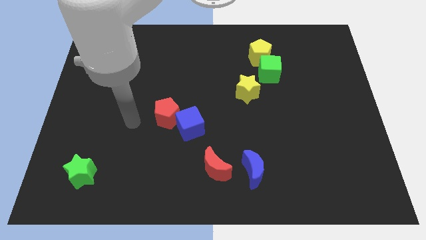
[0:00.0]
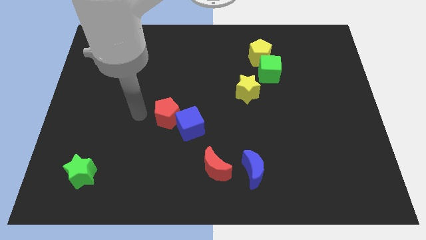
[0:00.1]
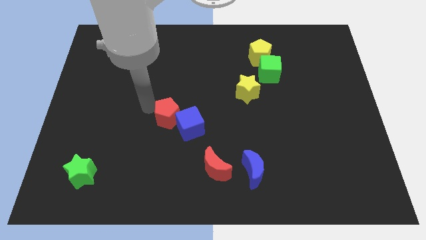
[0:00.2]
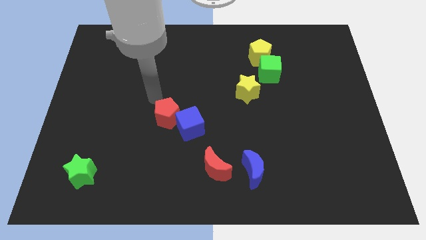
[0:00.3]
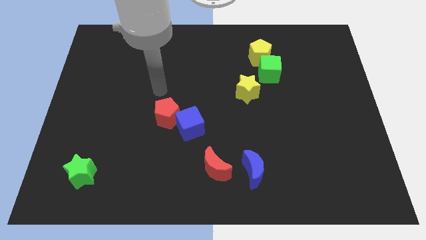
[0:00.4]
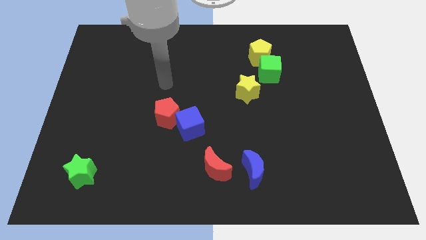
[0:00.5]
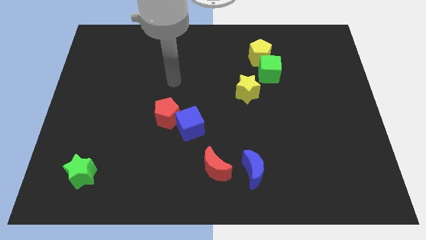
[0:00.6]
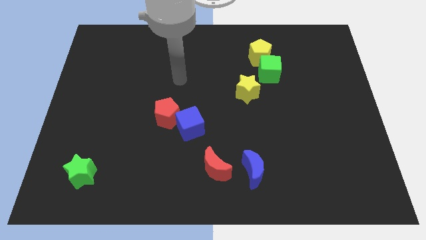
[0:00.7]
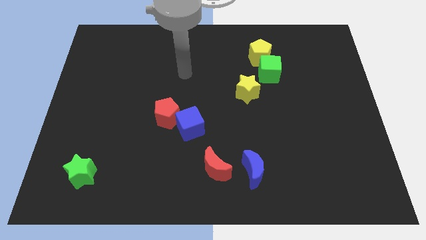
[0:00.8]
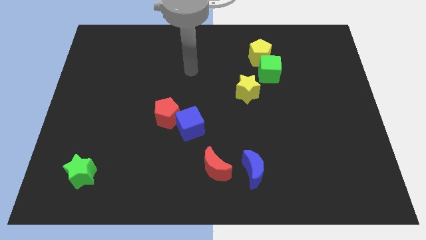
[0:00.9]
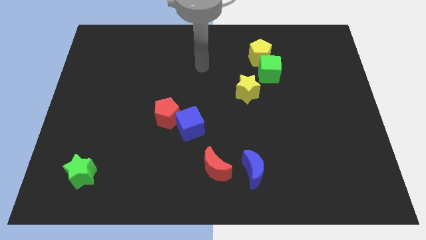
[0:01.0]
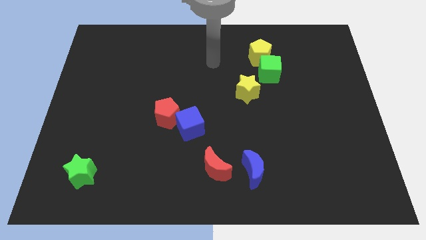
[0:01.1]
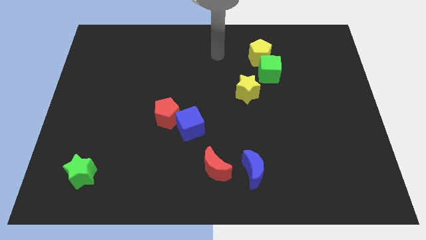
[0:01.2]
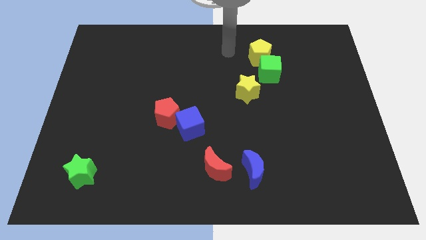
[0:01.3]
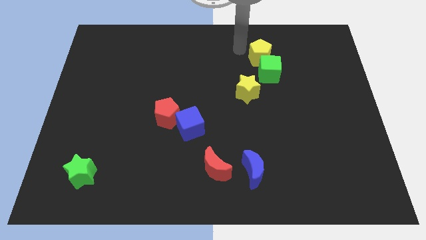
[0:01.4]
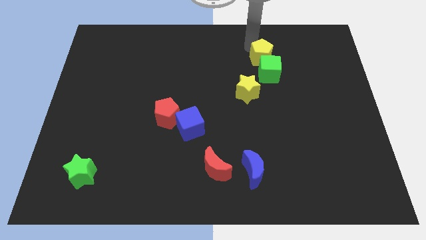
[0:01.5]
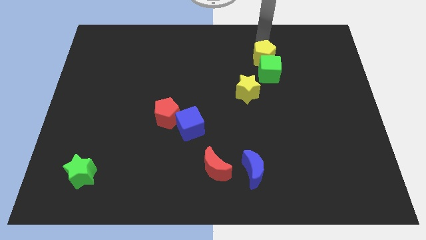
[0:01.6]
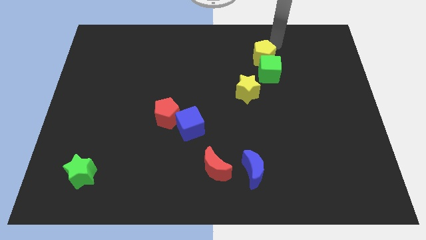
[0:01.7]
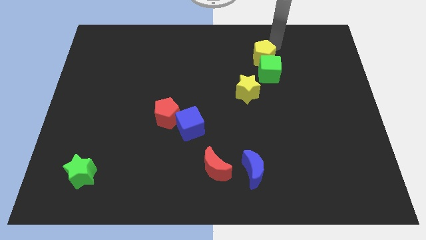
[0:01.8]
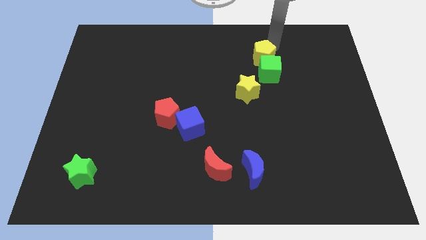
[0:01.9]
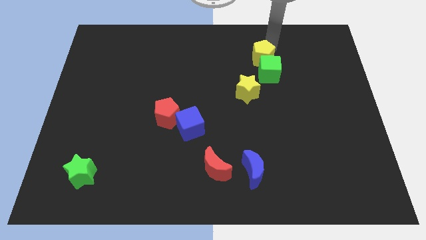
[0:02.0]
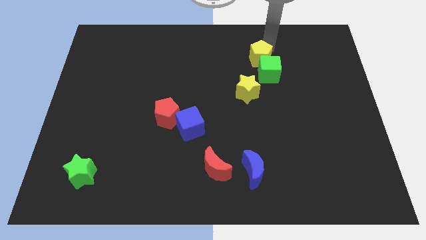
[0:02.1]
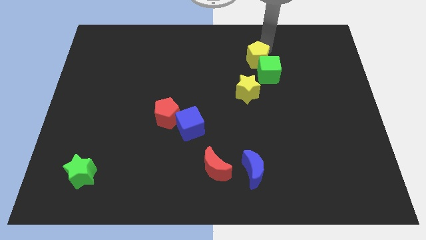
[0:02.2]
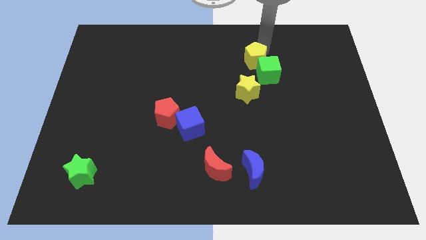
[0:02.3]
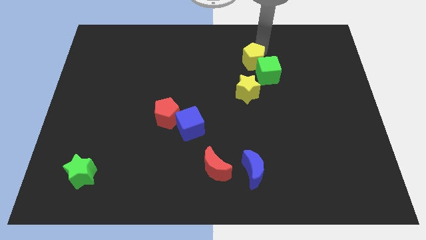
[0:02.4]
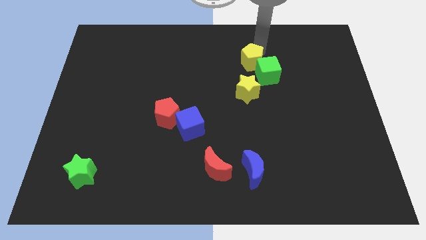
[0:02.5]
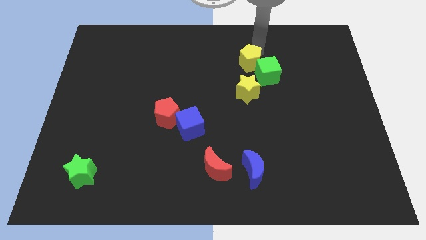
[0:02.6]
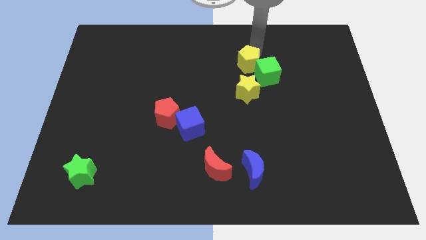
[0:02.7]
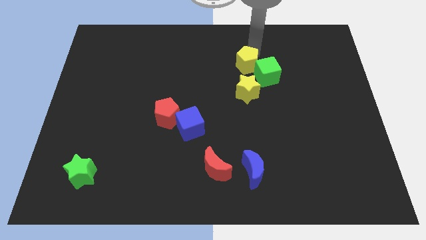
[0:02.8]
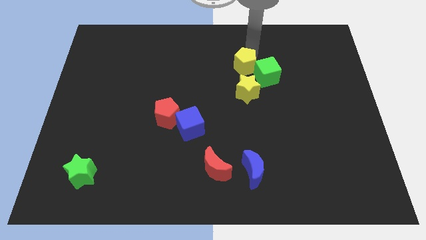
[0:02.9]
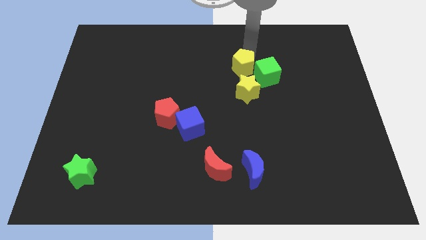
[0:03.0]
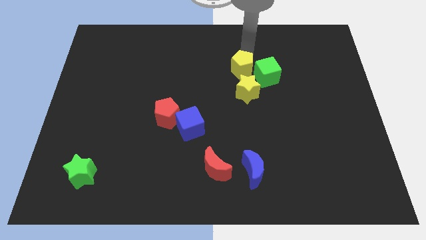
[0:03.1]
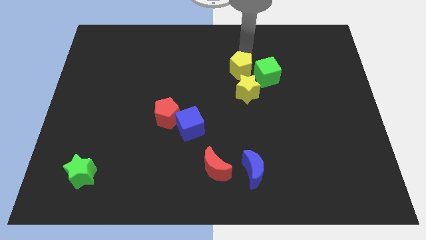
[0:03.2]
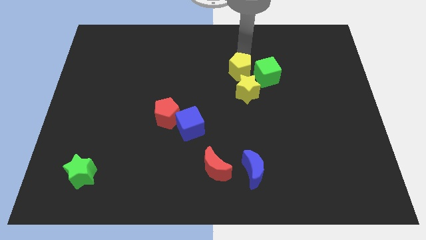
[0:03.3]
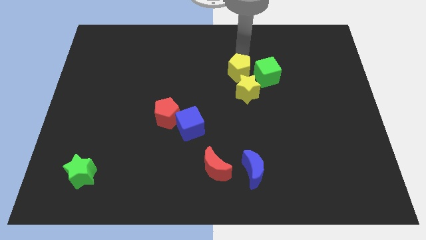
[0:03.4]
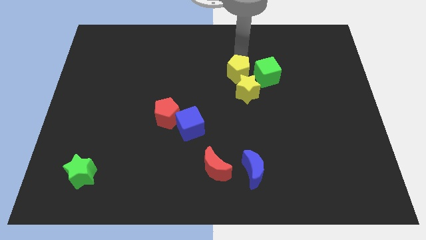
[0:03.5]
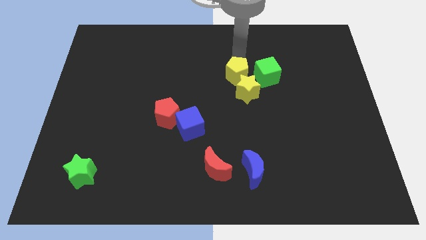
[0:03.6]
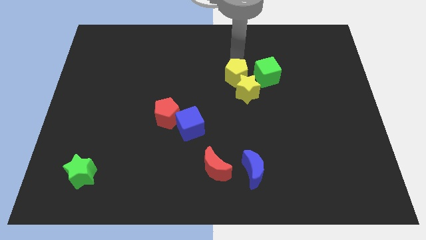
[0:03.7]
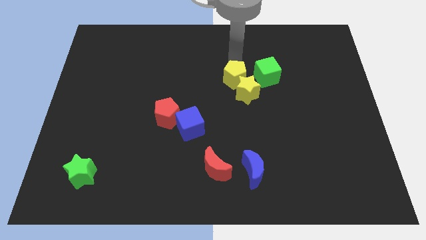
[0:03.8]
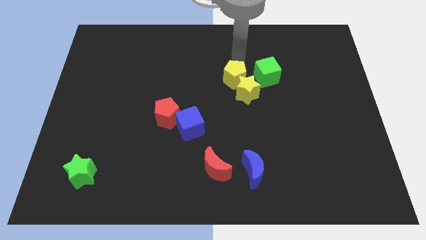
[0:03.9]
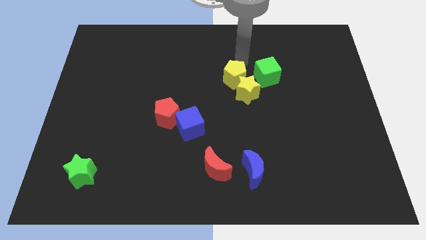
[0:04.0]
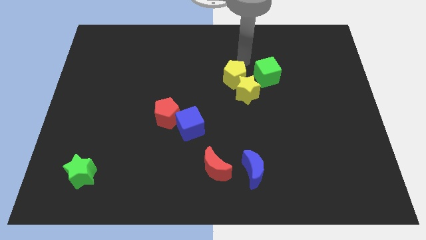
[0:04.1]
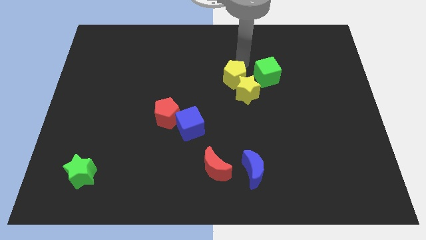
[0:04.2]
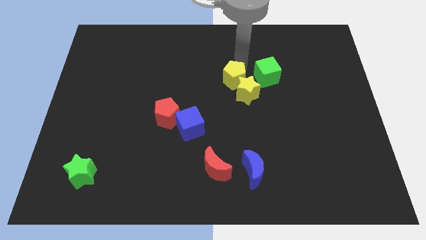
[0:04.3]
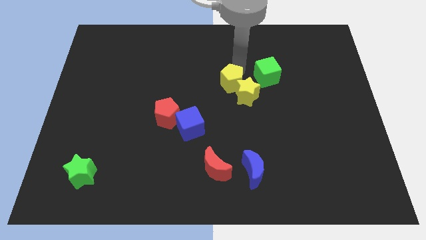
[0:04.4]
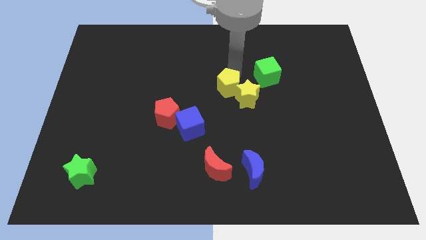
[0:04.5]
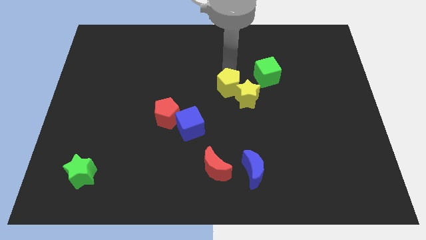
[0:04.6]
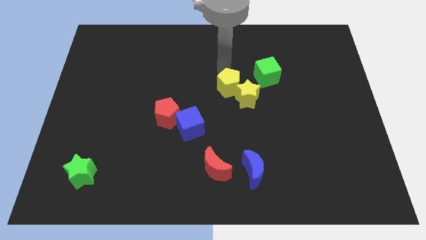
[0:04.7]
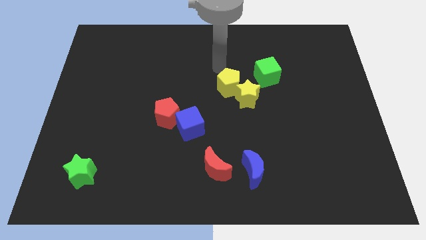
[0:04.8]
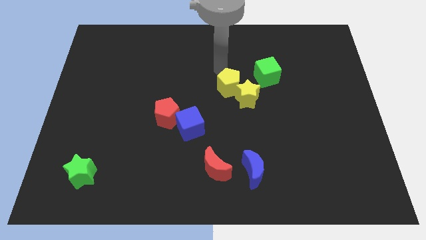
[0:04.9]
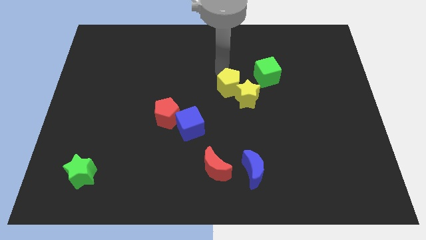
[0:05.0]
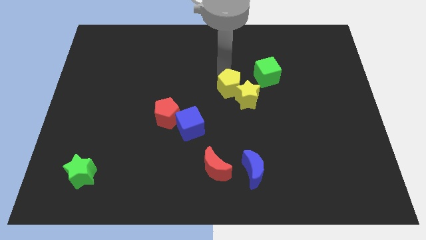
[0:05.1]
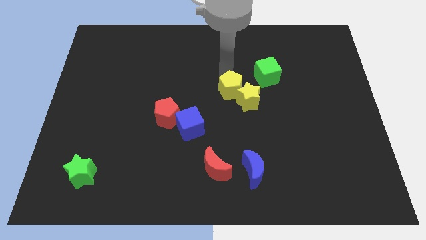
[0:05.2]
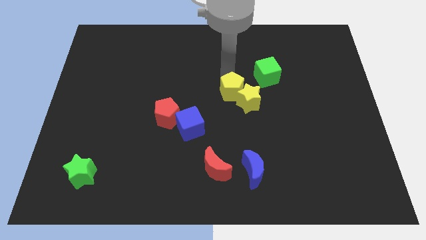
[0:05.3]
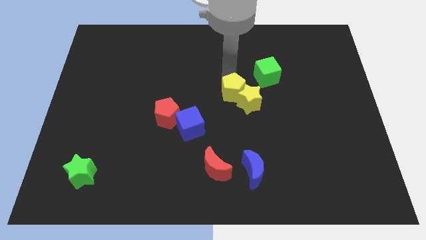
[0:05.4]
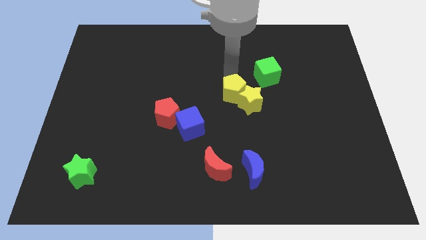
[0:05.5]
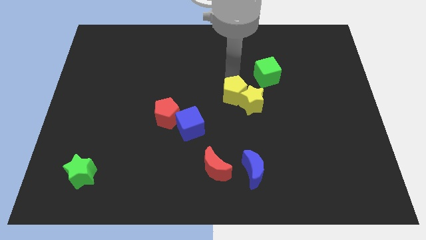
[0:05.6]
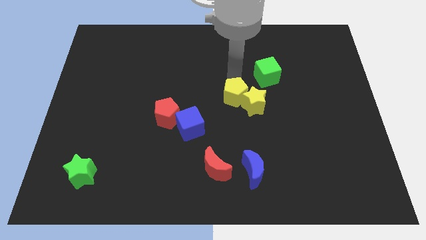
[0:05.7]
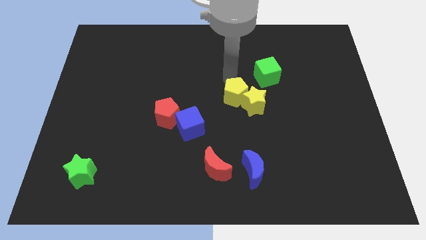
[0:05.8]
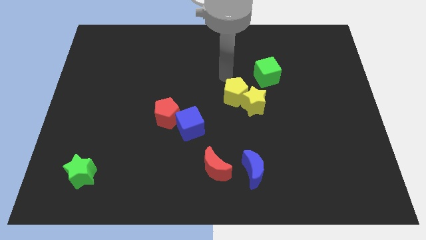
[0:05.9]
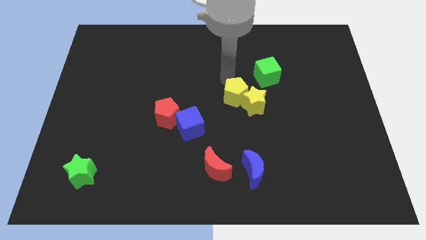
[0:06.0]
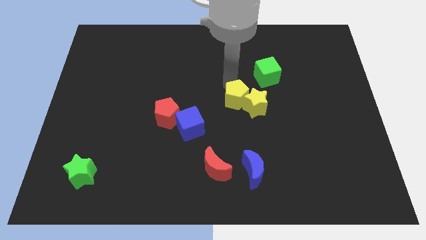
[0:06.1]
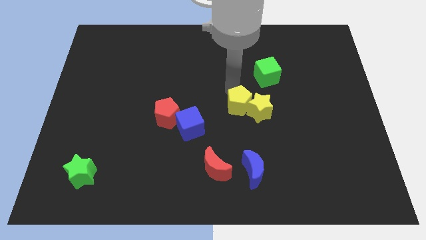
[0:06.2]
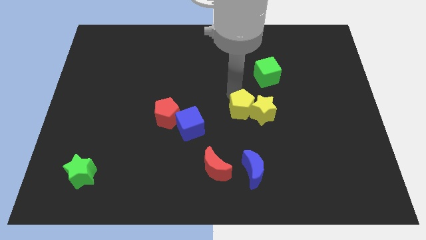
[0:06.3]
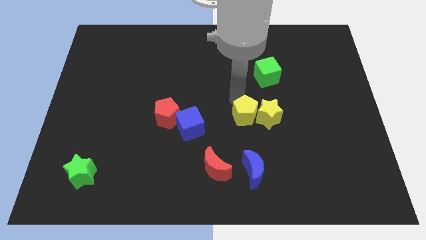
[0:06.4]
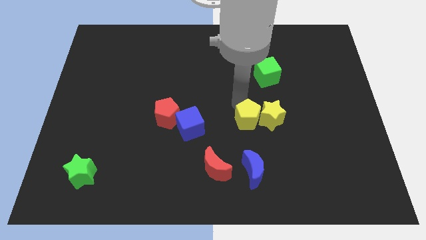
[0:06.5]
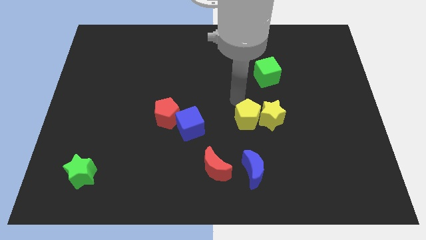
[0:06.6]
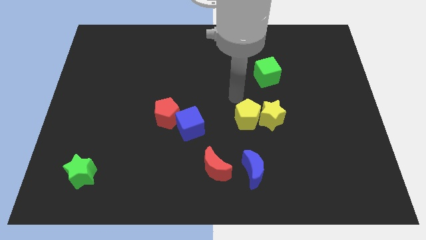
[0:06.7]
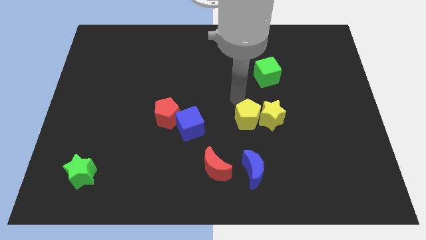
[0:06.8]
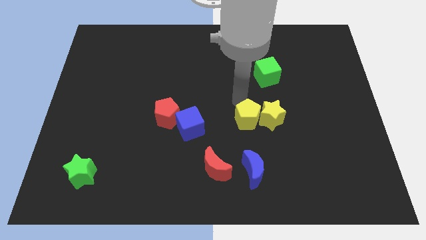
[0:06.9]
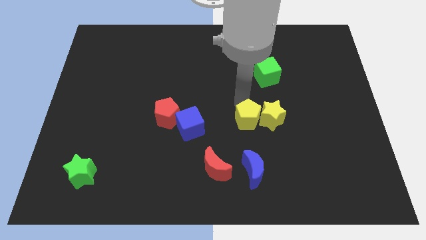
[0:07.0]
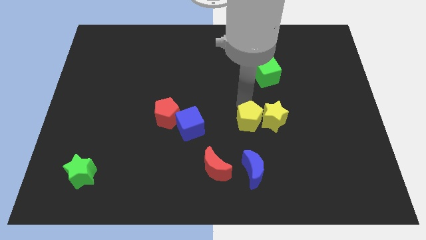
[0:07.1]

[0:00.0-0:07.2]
move the yellow pentagon down

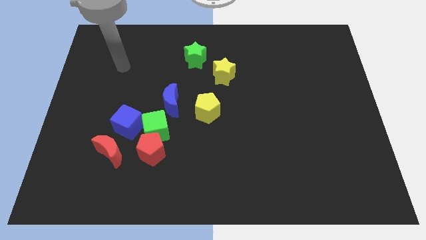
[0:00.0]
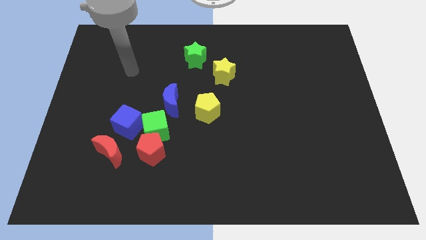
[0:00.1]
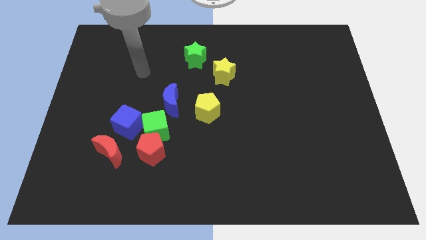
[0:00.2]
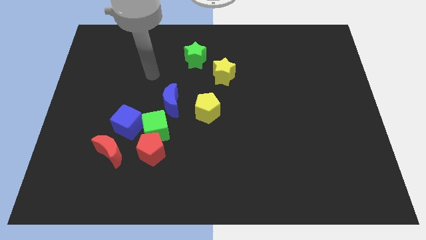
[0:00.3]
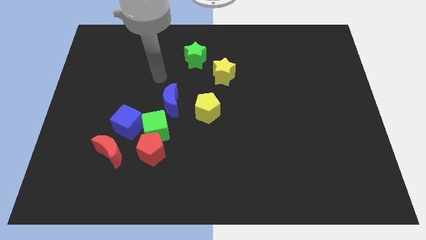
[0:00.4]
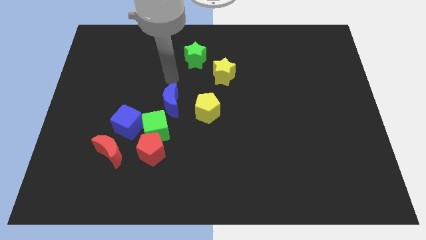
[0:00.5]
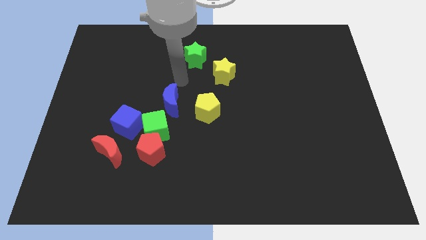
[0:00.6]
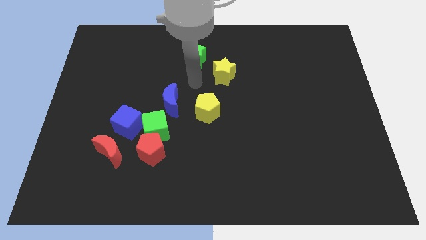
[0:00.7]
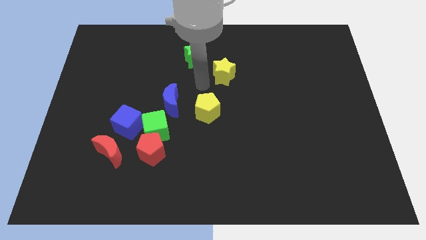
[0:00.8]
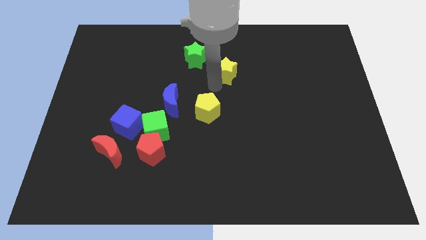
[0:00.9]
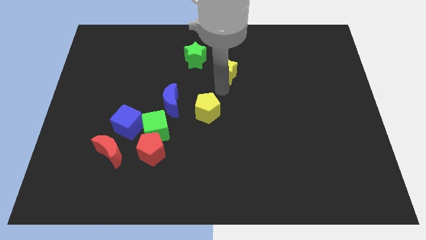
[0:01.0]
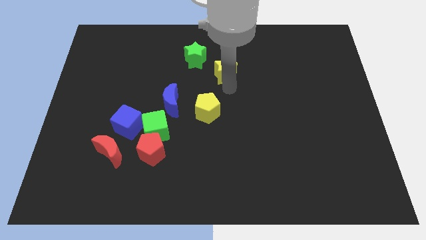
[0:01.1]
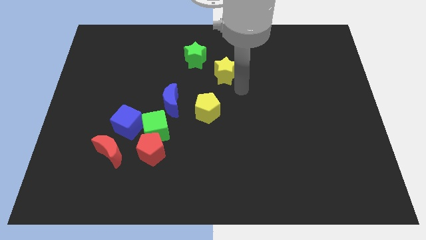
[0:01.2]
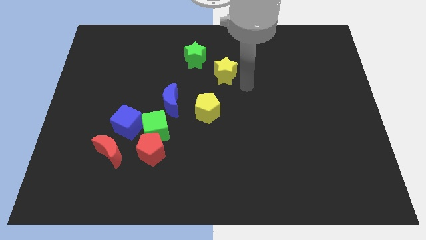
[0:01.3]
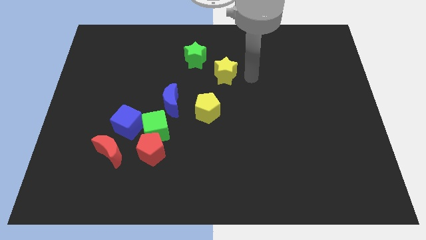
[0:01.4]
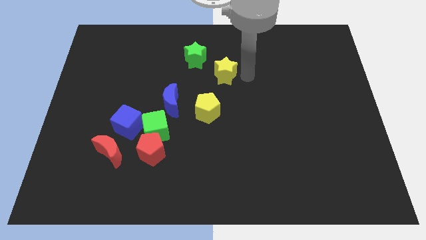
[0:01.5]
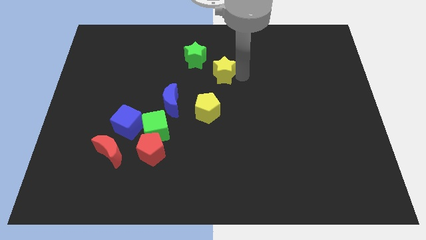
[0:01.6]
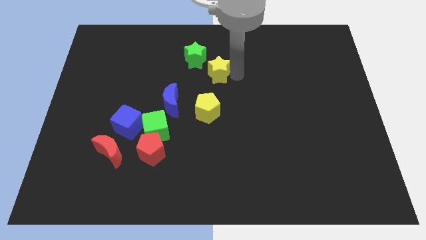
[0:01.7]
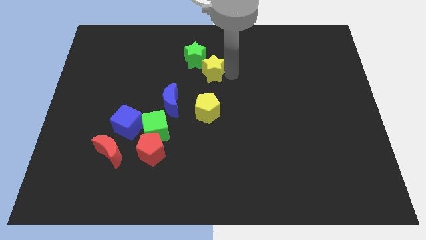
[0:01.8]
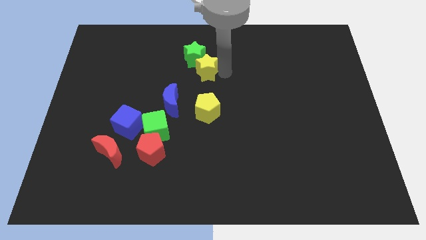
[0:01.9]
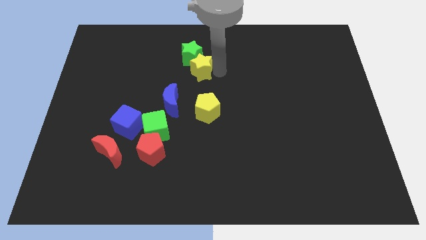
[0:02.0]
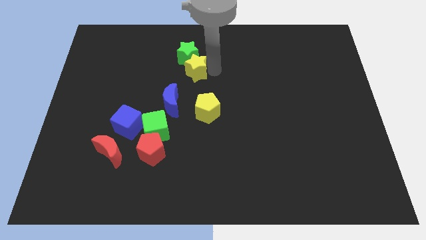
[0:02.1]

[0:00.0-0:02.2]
slightly move the yellow star to the left
